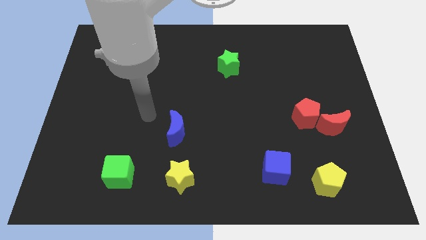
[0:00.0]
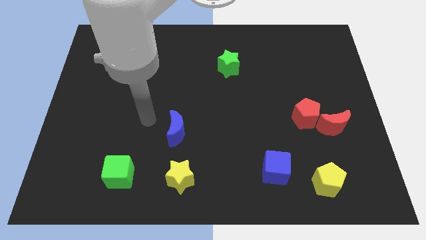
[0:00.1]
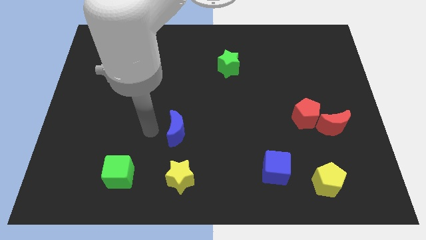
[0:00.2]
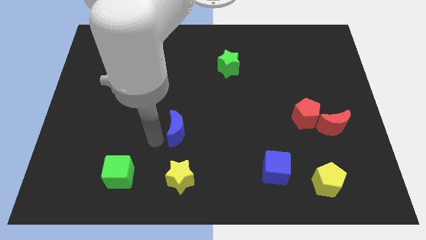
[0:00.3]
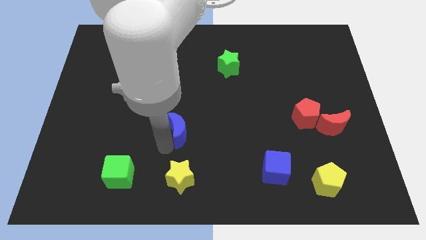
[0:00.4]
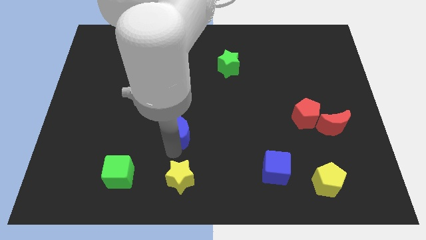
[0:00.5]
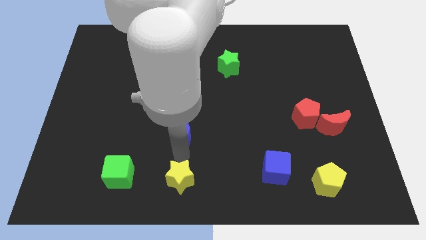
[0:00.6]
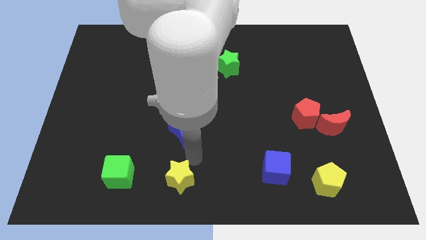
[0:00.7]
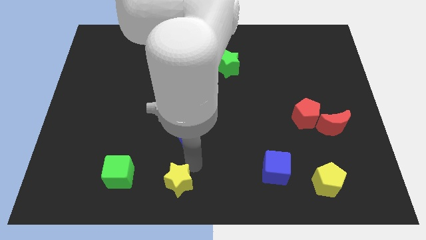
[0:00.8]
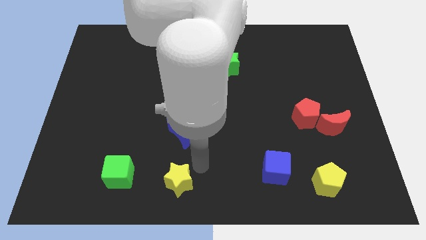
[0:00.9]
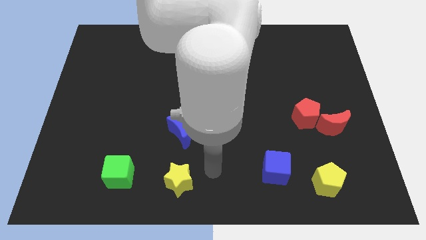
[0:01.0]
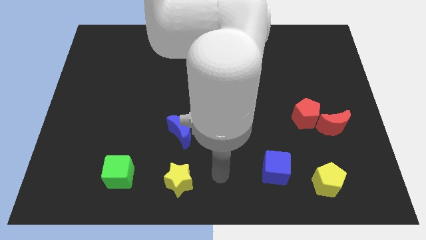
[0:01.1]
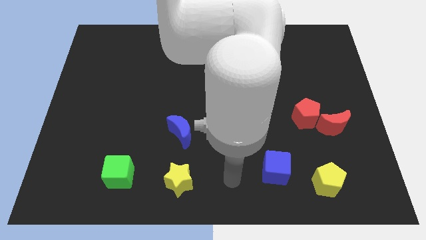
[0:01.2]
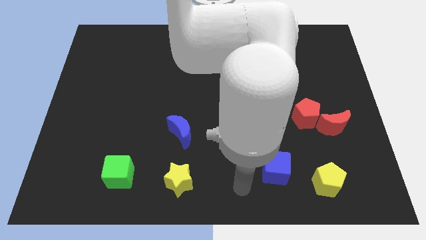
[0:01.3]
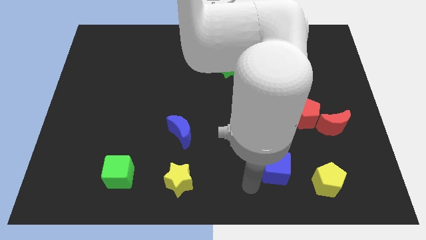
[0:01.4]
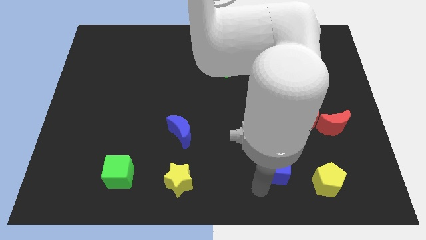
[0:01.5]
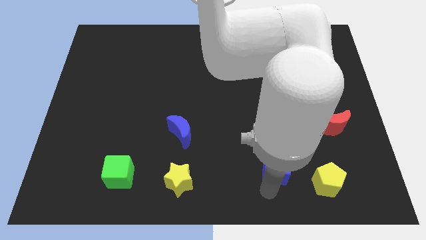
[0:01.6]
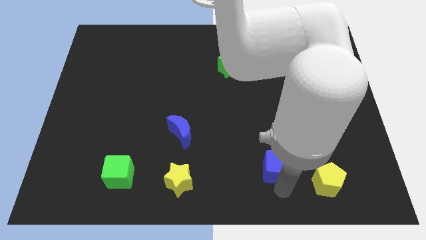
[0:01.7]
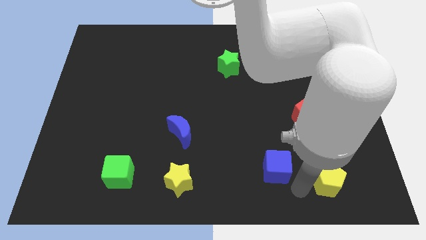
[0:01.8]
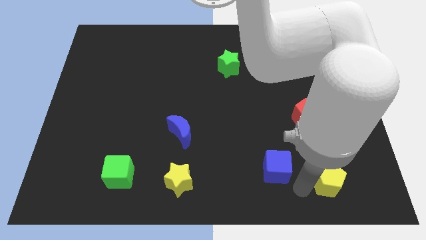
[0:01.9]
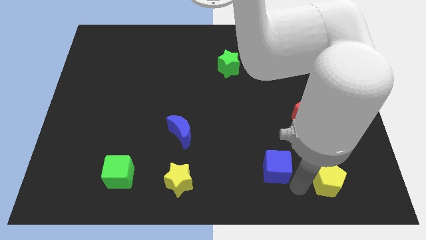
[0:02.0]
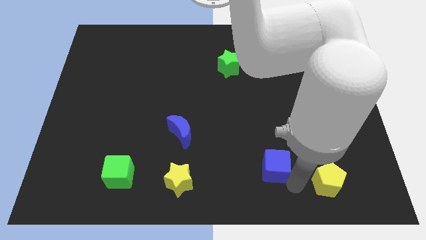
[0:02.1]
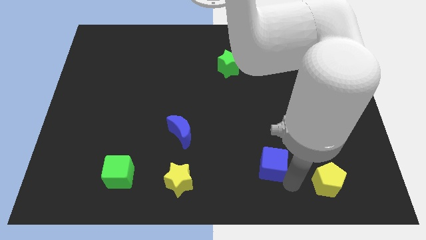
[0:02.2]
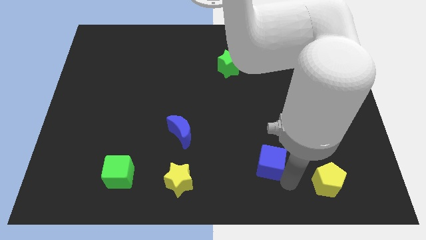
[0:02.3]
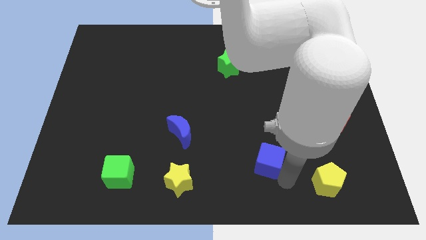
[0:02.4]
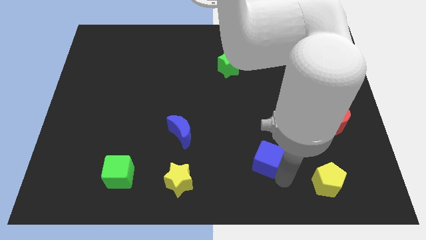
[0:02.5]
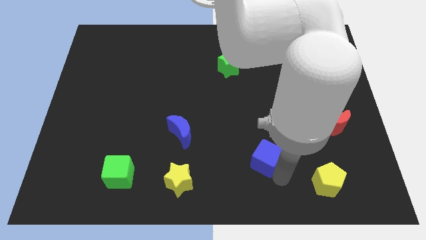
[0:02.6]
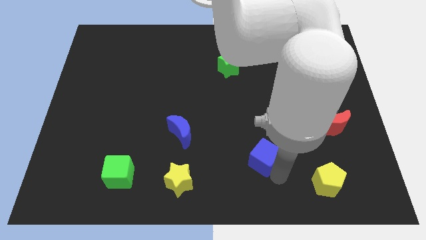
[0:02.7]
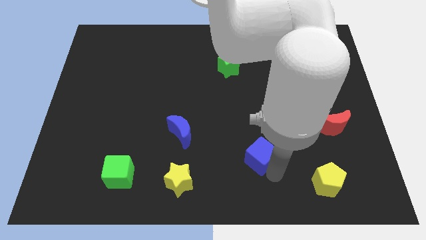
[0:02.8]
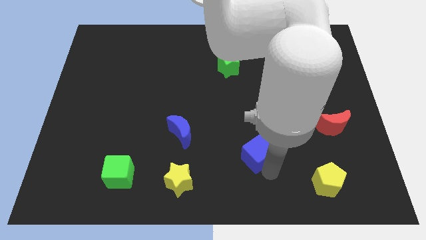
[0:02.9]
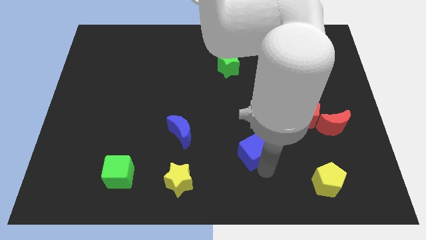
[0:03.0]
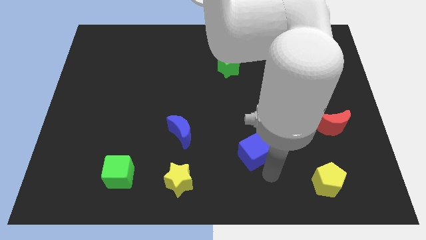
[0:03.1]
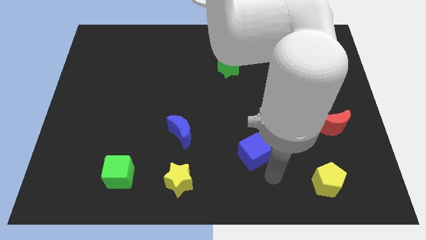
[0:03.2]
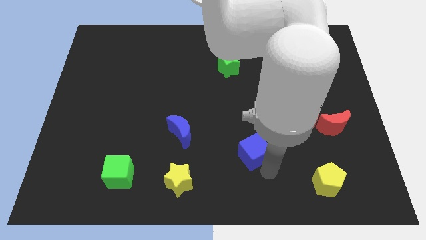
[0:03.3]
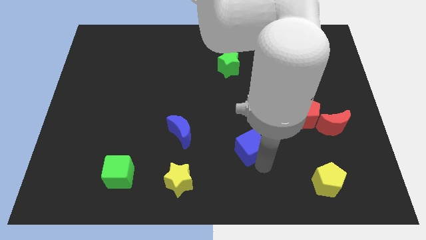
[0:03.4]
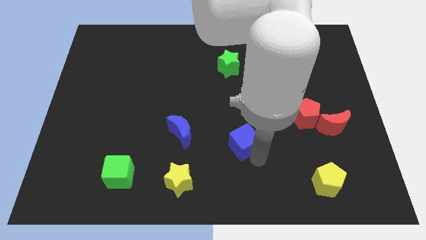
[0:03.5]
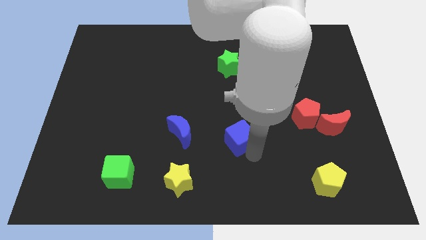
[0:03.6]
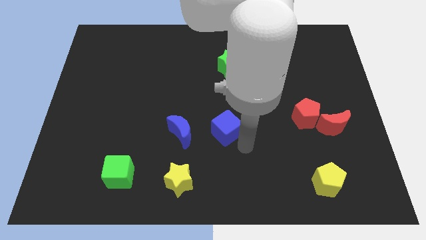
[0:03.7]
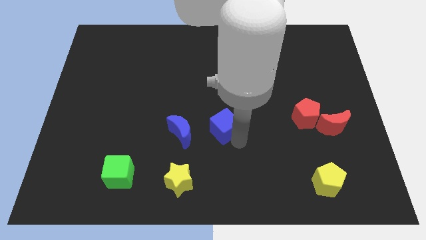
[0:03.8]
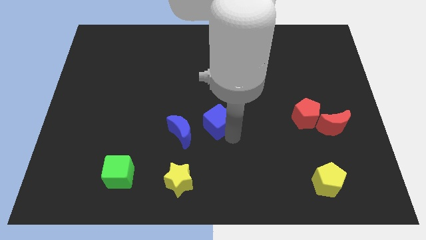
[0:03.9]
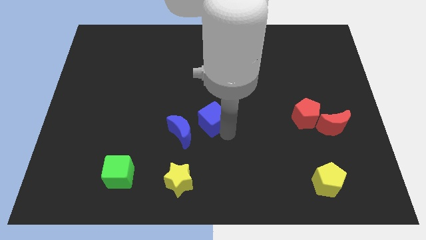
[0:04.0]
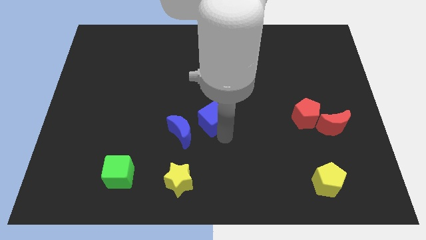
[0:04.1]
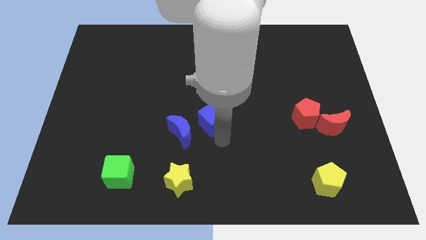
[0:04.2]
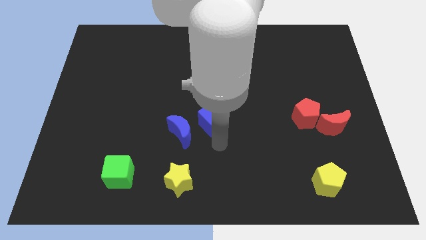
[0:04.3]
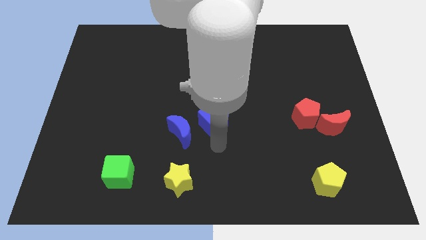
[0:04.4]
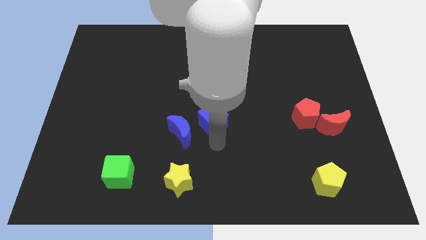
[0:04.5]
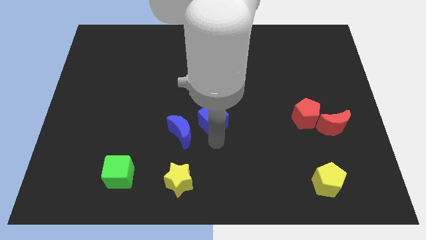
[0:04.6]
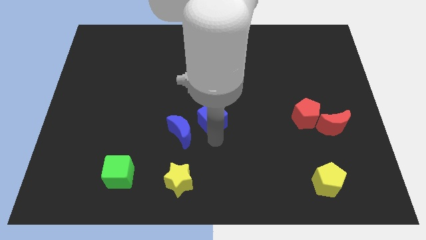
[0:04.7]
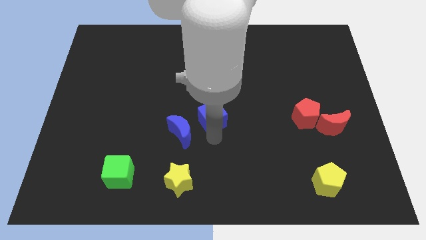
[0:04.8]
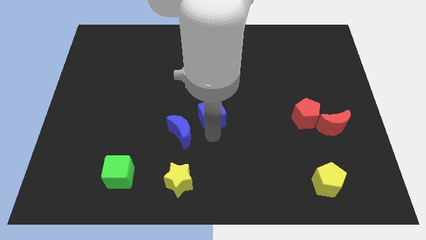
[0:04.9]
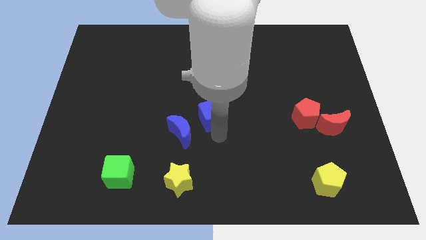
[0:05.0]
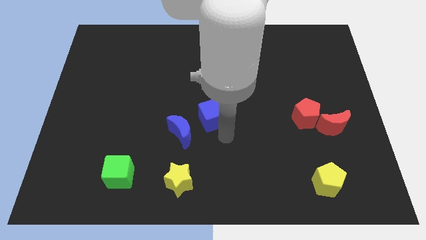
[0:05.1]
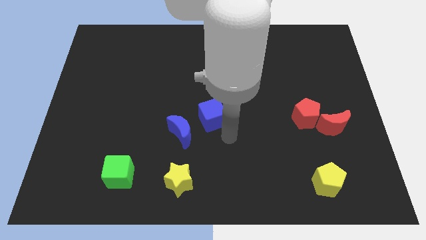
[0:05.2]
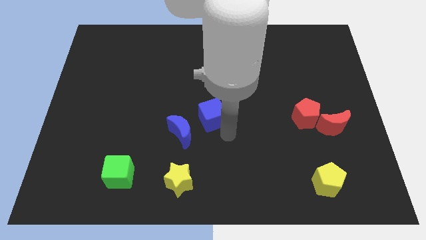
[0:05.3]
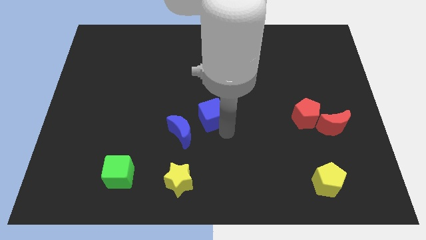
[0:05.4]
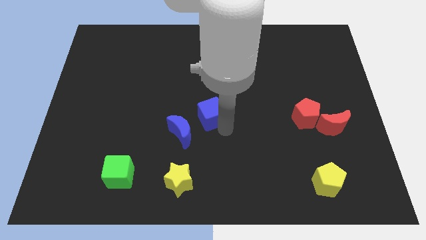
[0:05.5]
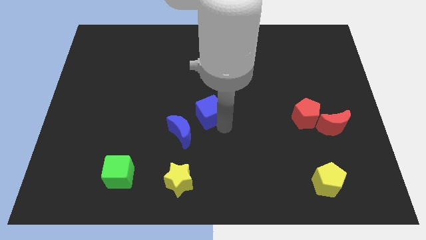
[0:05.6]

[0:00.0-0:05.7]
slide the blue cube upwards and then to the left

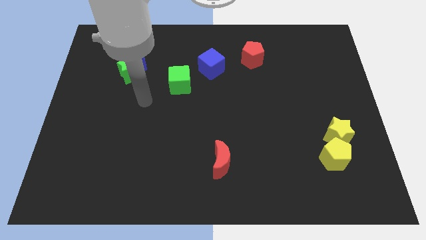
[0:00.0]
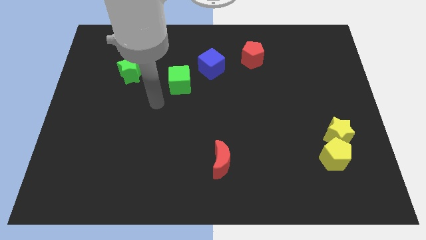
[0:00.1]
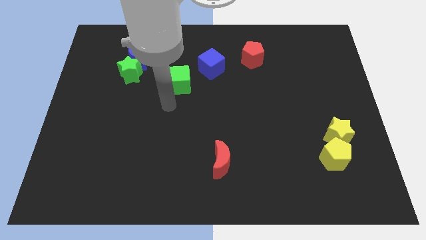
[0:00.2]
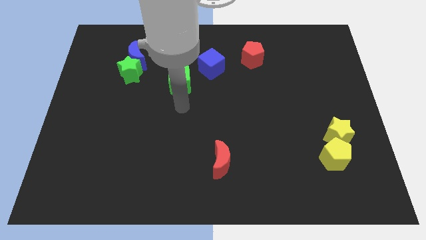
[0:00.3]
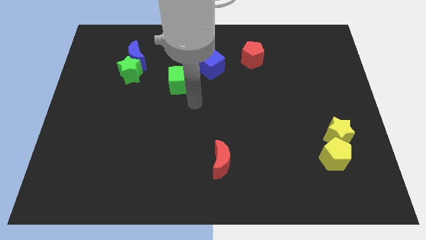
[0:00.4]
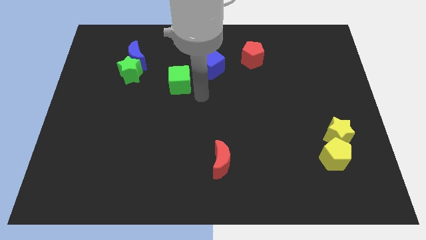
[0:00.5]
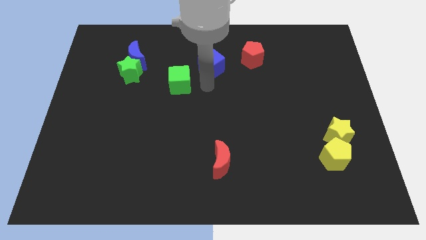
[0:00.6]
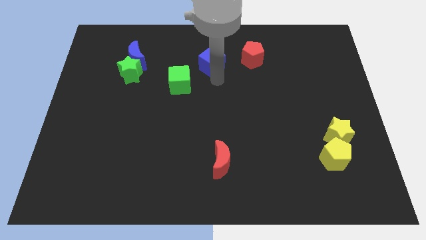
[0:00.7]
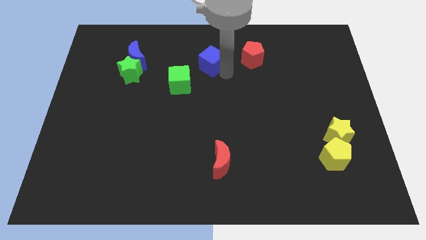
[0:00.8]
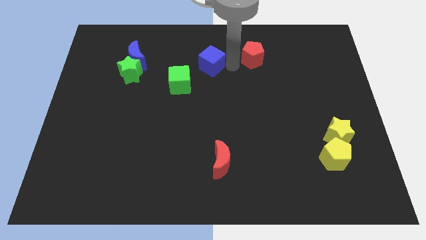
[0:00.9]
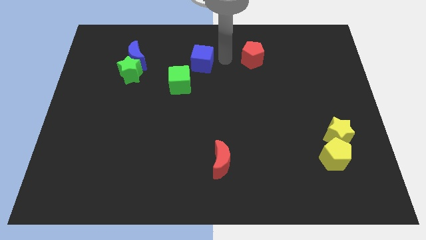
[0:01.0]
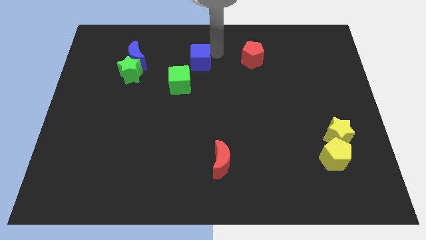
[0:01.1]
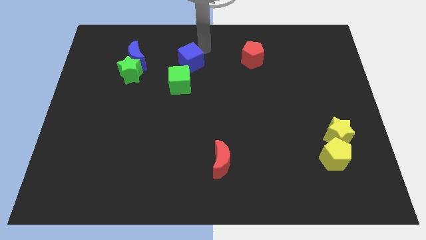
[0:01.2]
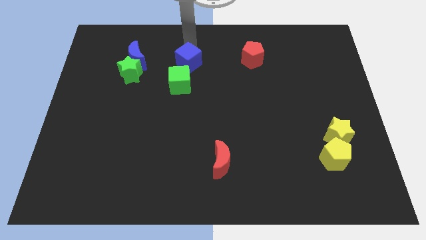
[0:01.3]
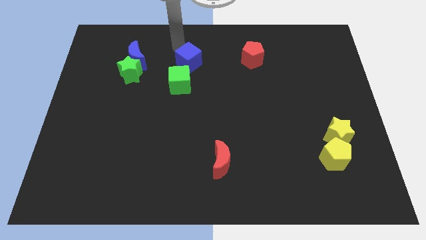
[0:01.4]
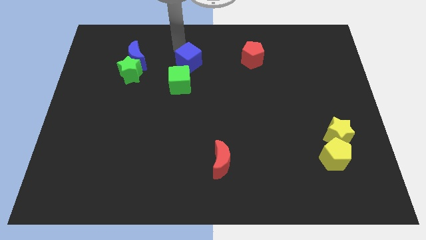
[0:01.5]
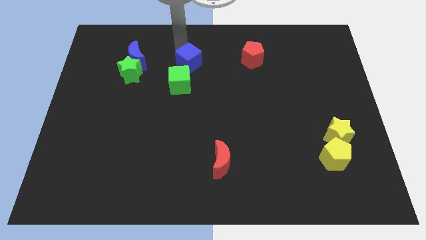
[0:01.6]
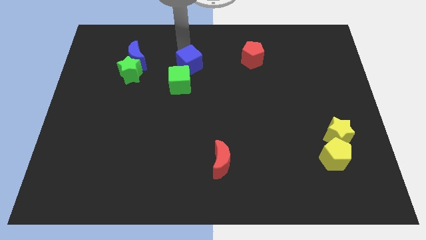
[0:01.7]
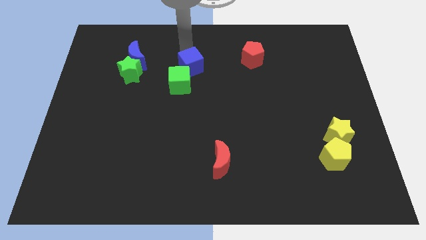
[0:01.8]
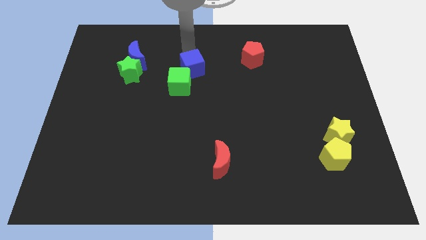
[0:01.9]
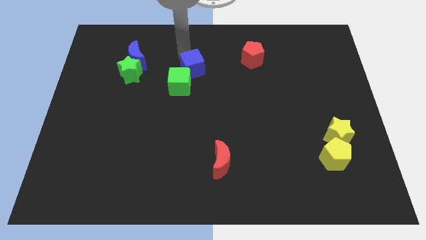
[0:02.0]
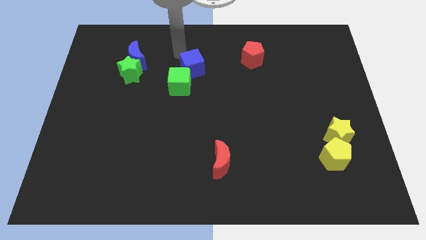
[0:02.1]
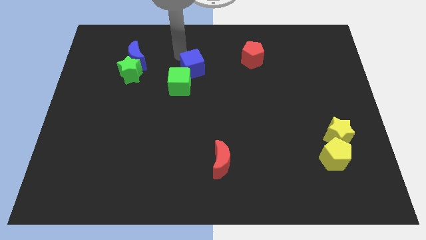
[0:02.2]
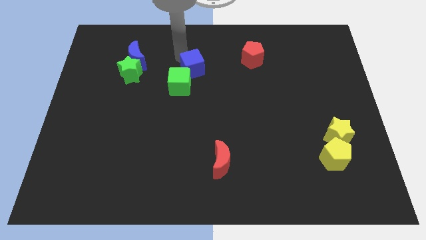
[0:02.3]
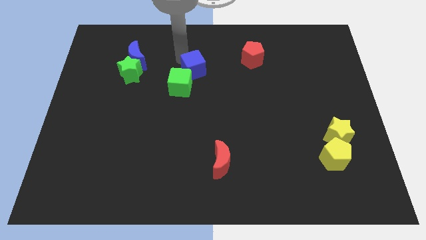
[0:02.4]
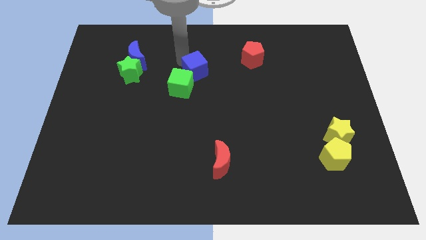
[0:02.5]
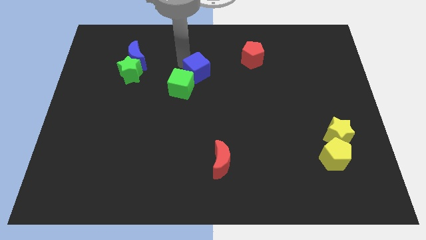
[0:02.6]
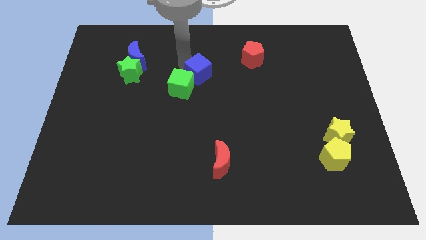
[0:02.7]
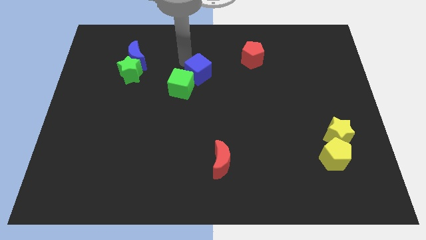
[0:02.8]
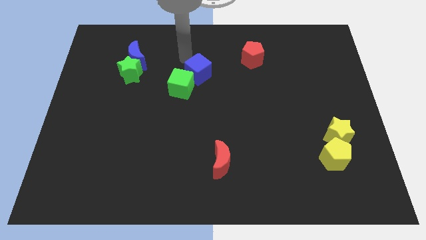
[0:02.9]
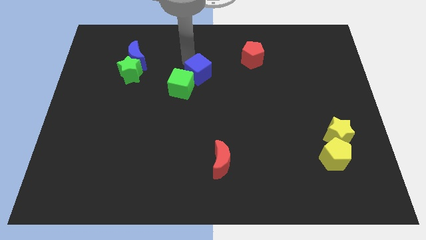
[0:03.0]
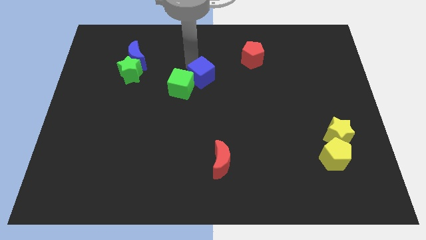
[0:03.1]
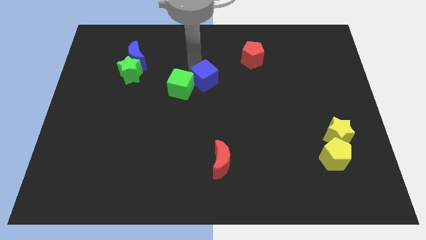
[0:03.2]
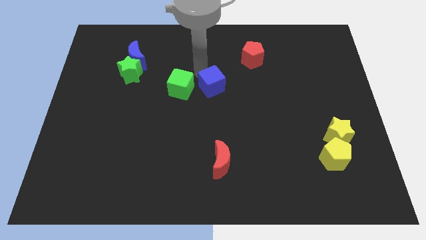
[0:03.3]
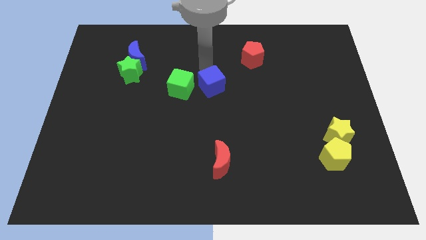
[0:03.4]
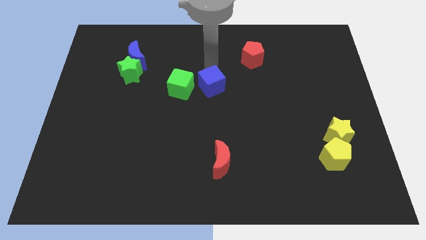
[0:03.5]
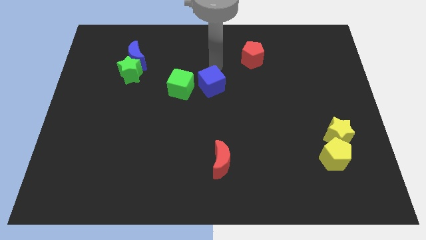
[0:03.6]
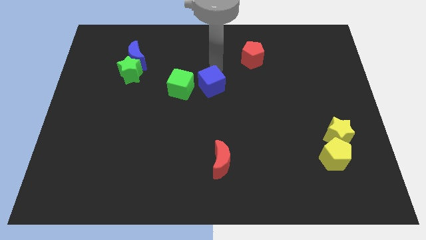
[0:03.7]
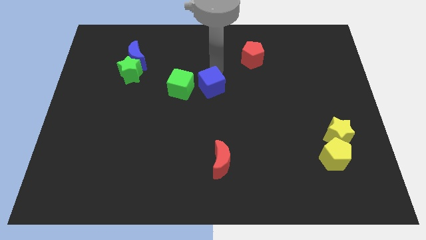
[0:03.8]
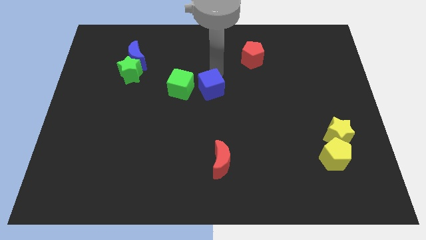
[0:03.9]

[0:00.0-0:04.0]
slightly push the blue cube downwards
